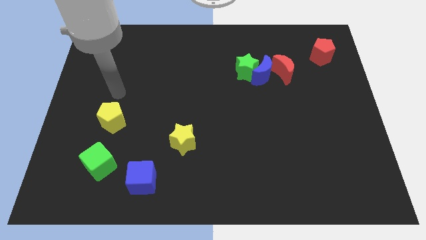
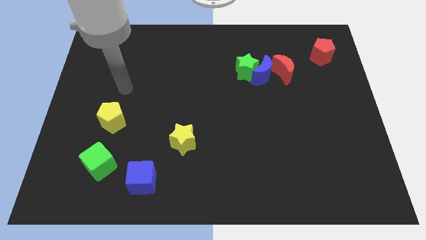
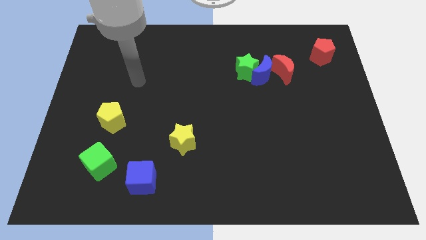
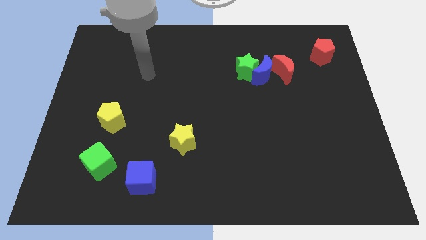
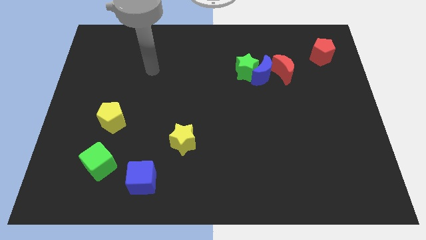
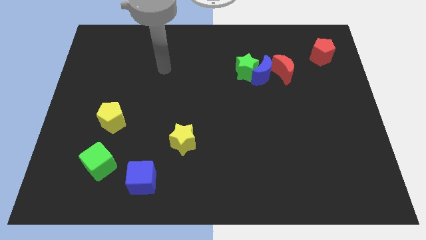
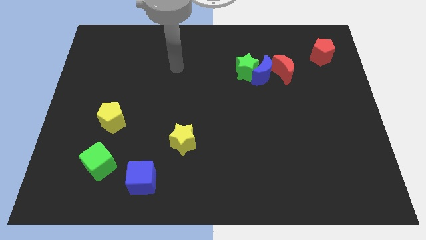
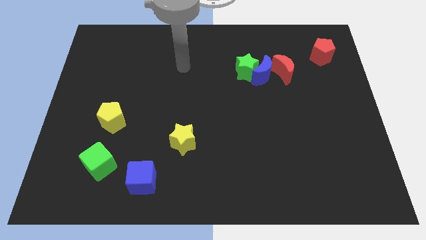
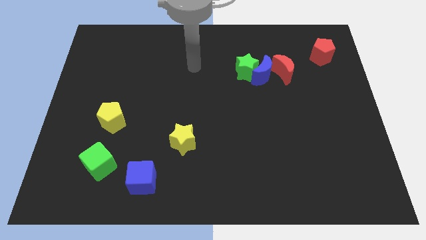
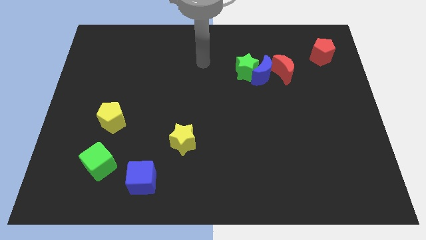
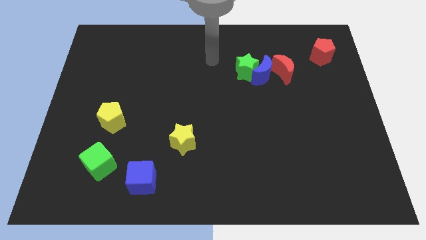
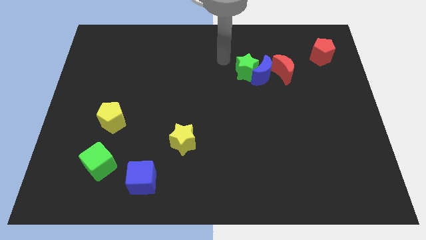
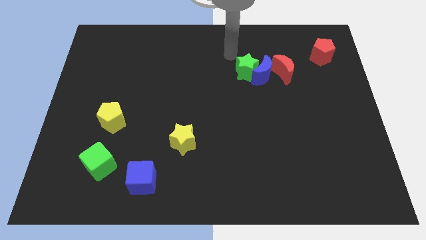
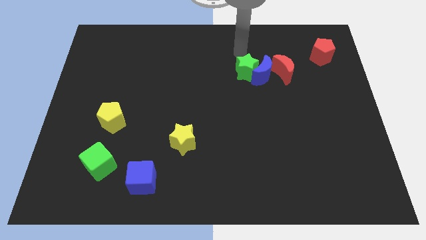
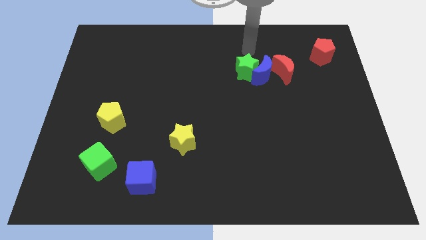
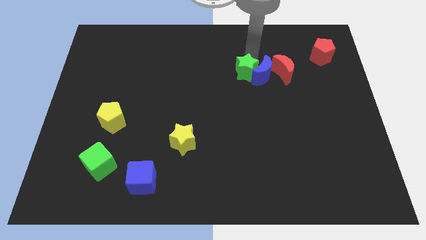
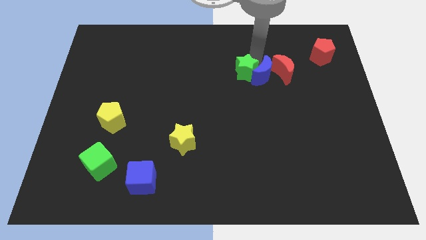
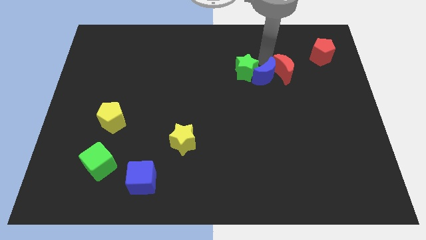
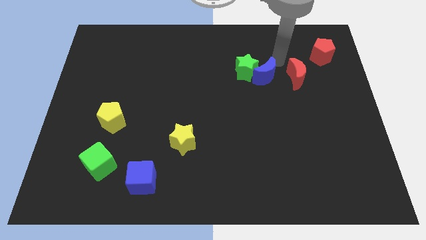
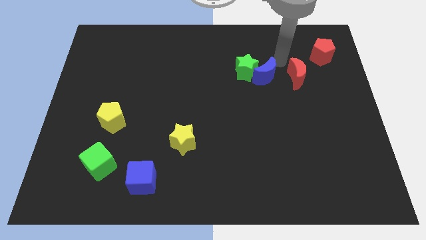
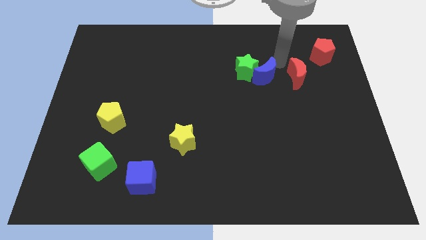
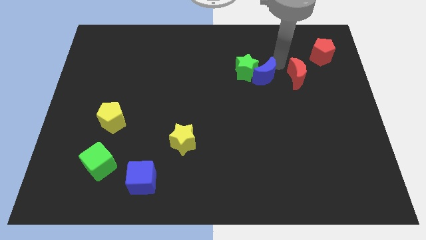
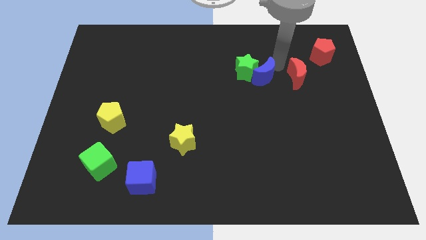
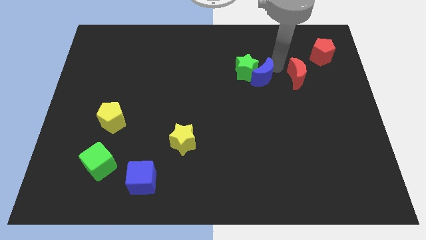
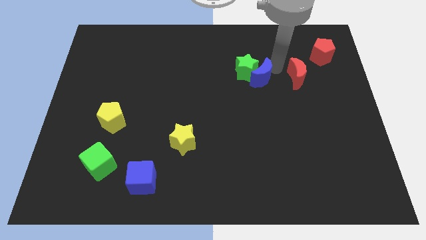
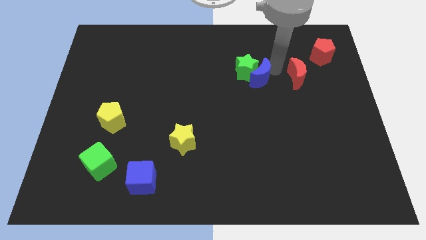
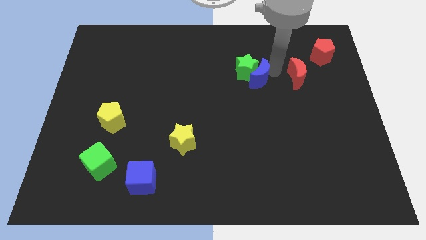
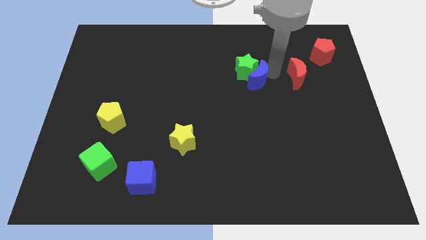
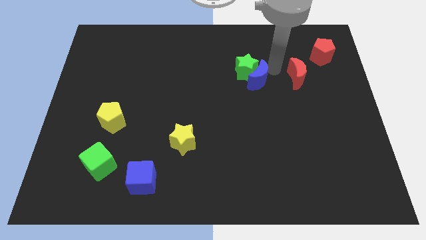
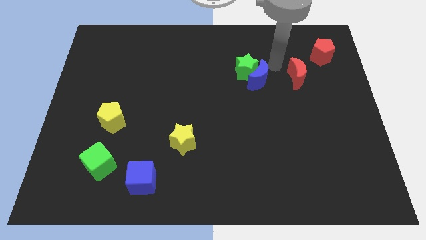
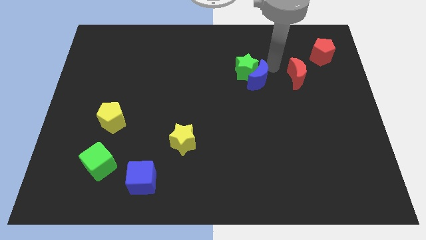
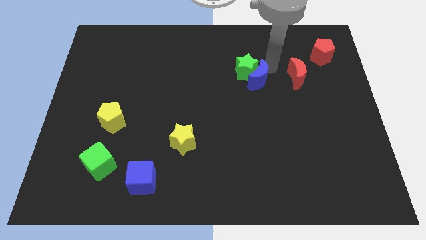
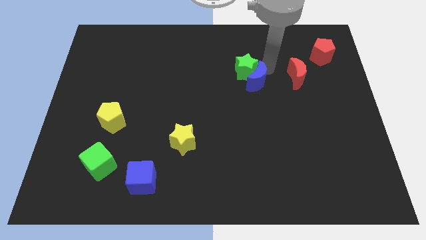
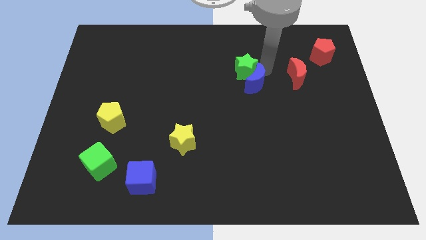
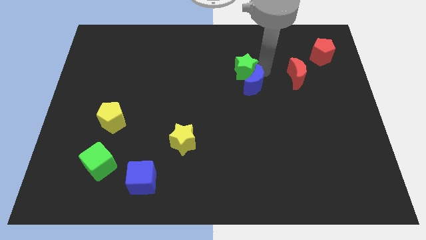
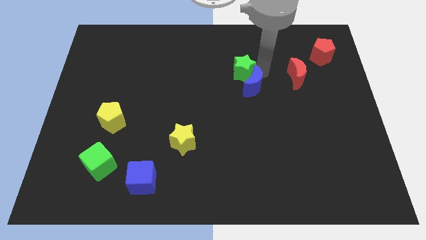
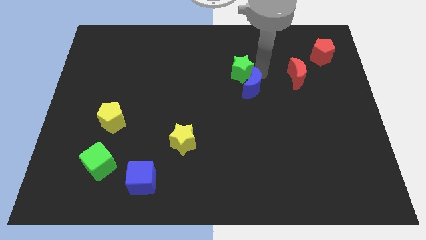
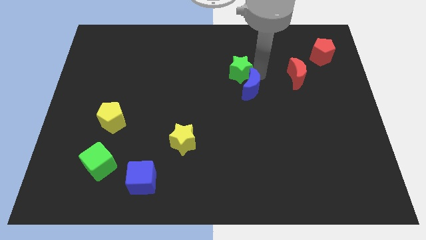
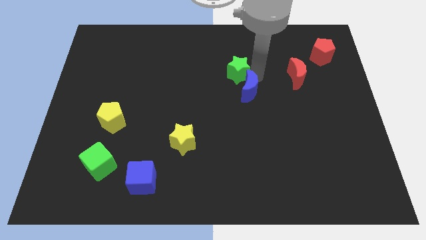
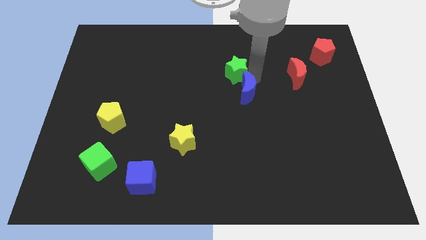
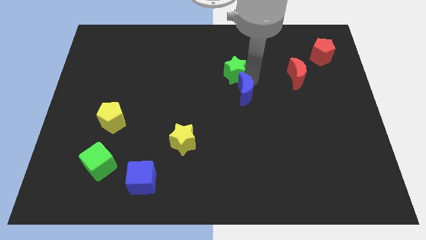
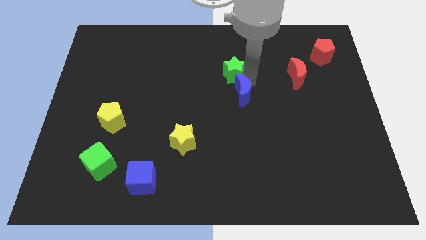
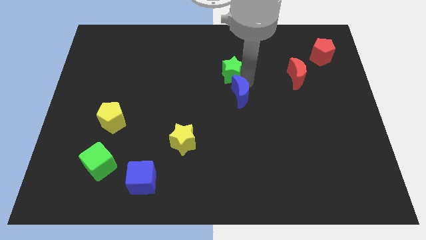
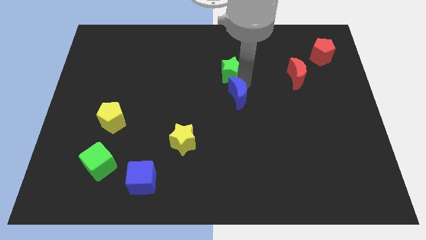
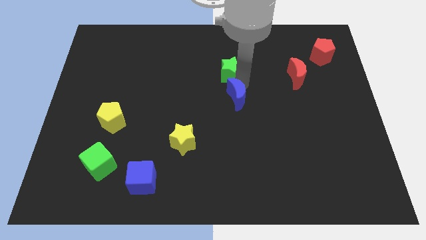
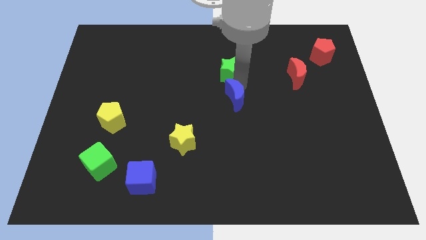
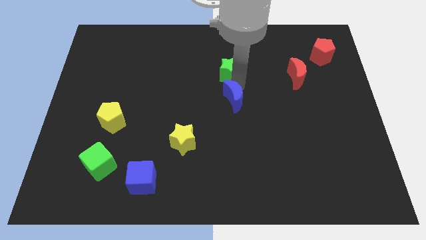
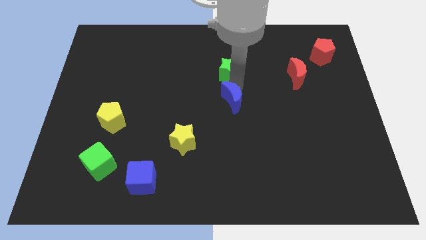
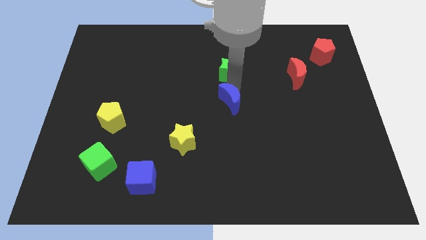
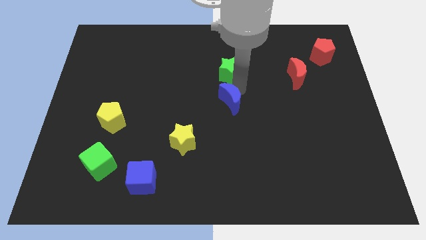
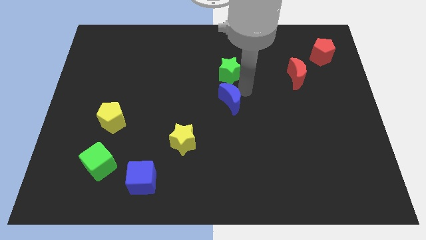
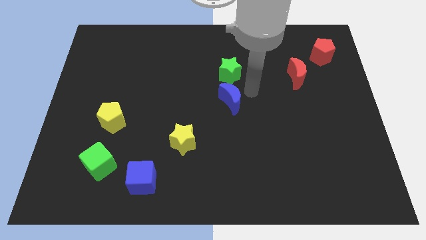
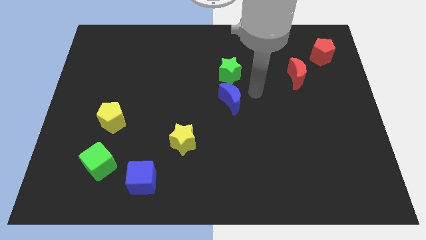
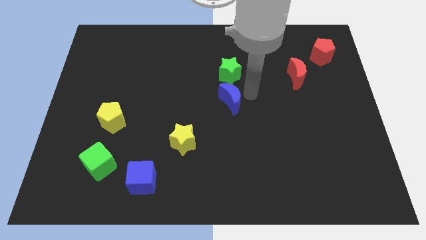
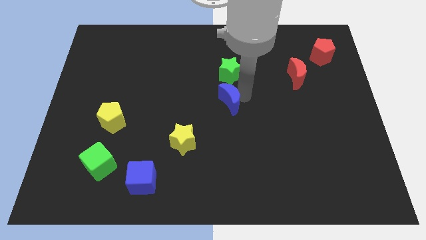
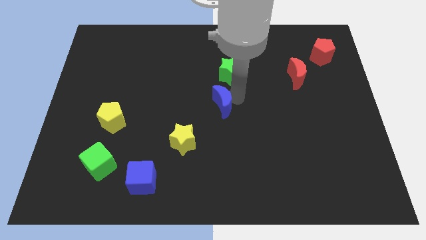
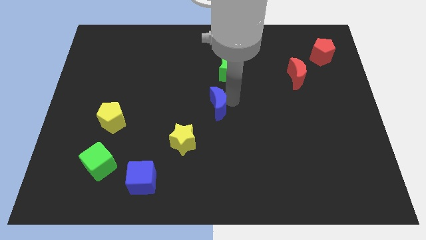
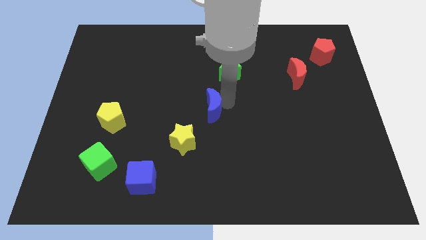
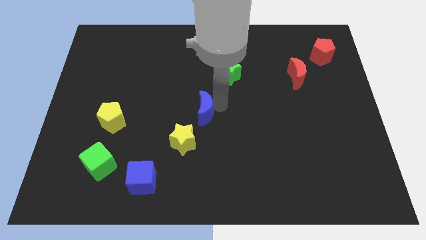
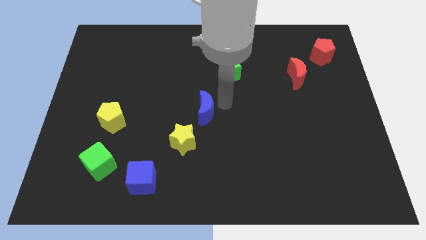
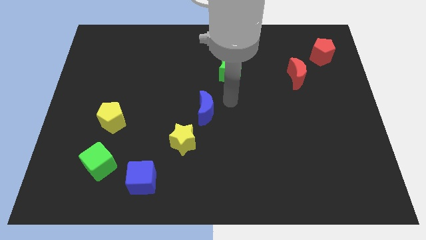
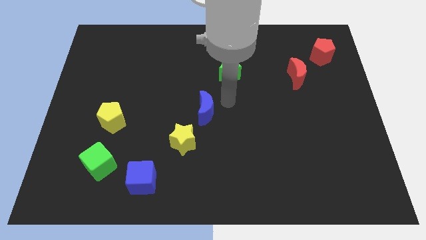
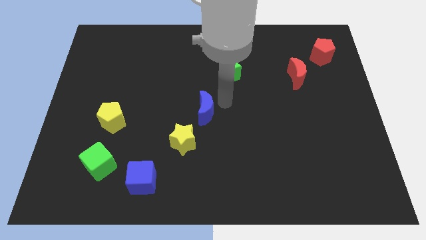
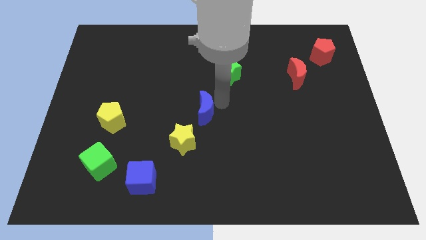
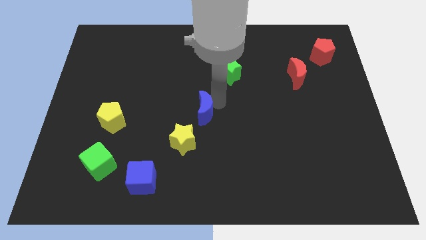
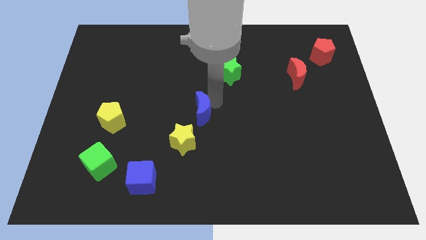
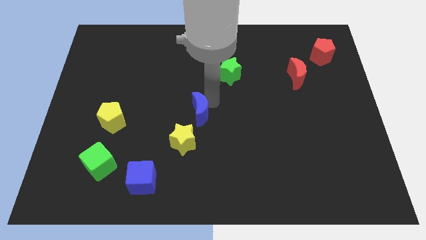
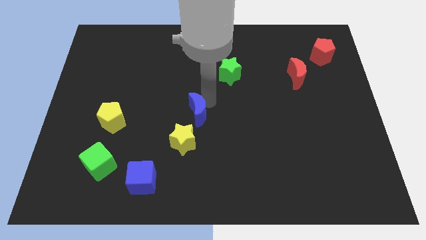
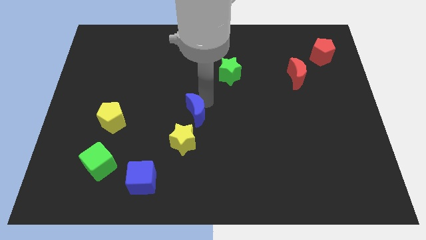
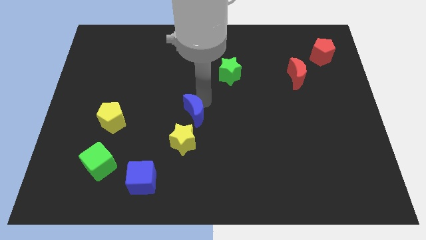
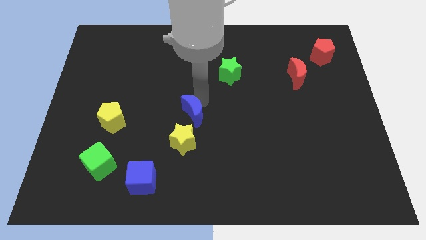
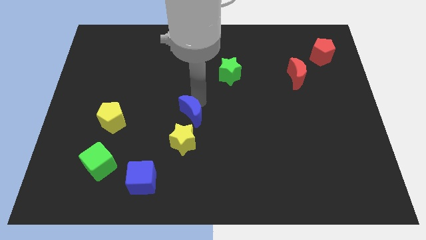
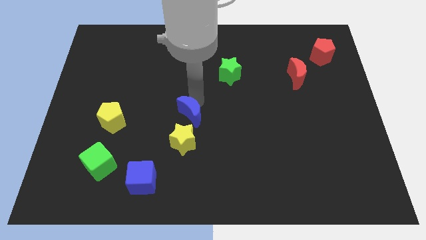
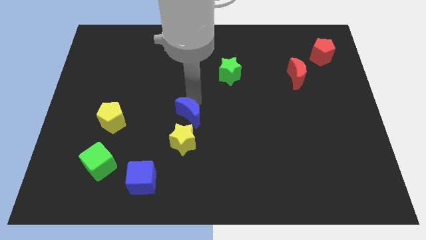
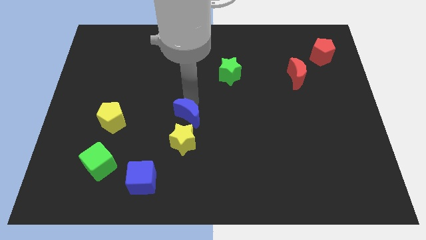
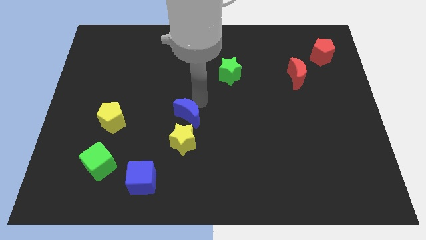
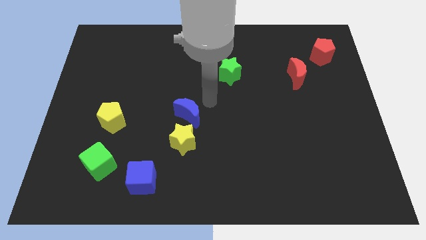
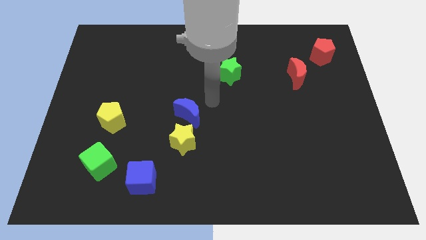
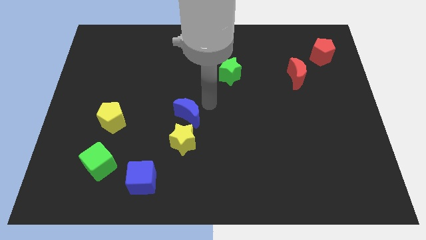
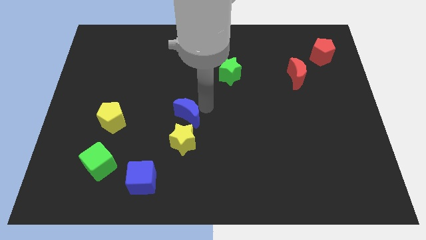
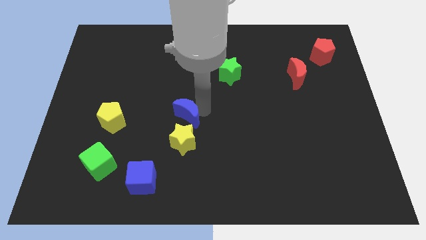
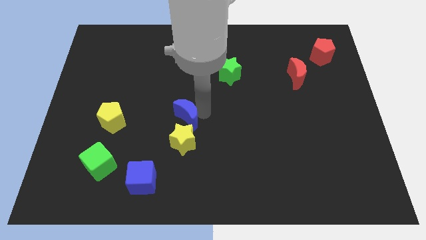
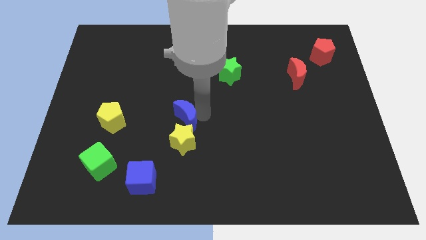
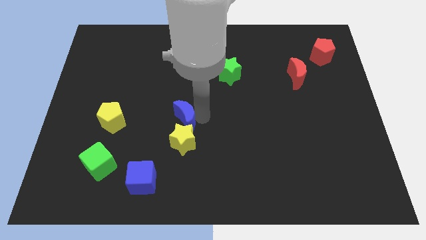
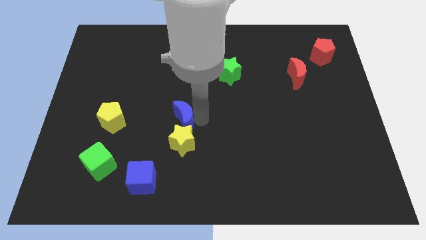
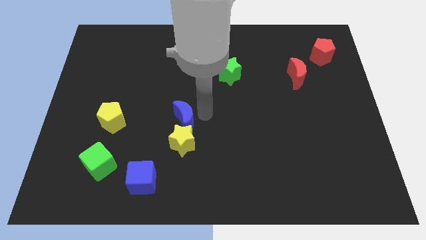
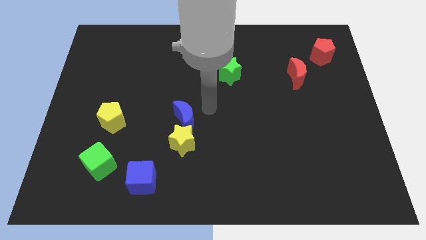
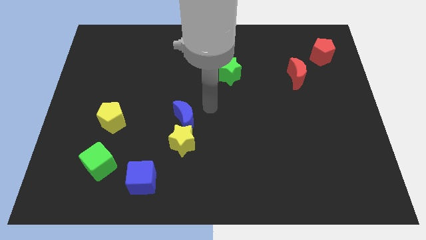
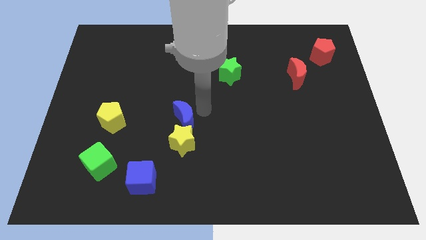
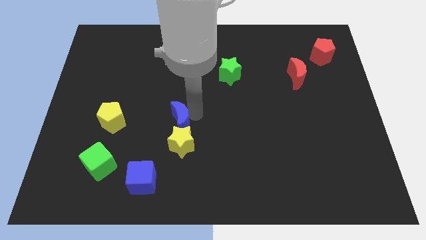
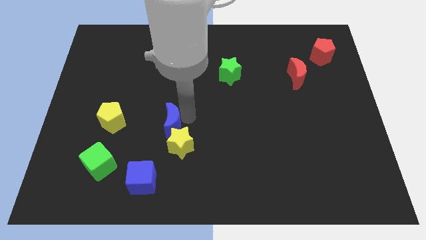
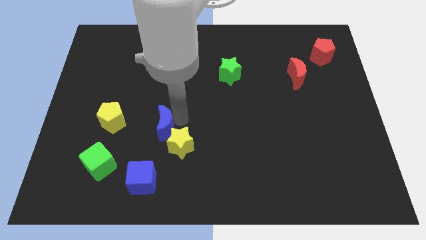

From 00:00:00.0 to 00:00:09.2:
put the blue moon to the top of the blue cube
